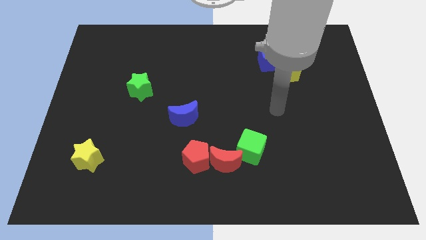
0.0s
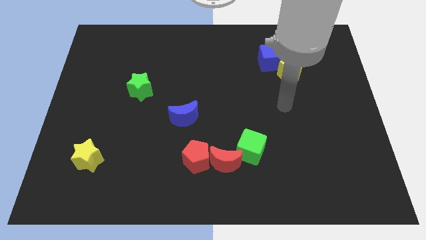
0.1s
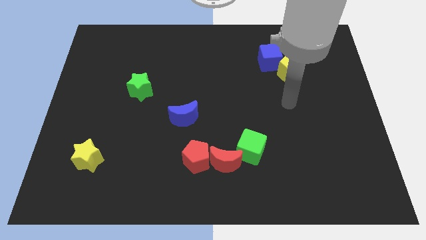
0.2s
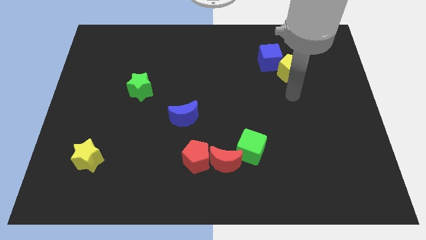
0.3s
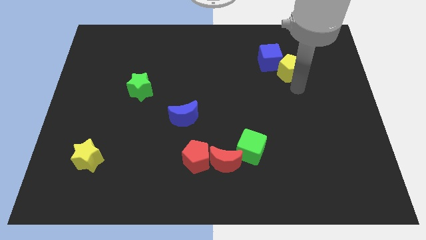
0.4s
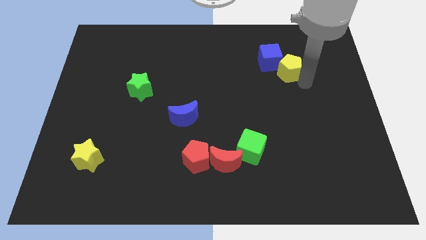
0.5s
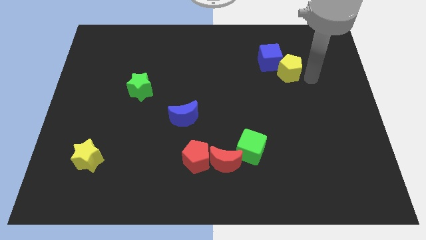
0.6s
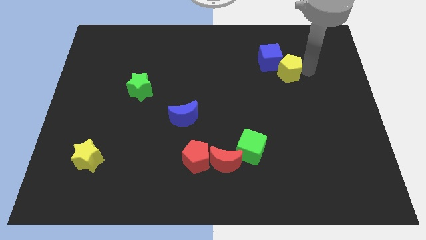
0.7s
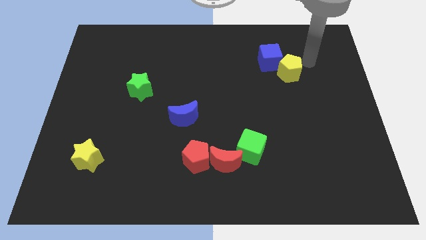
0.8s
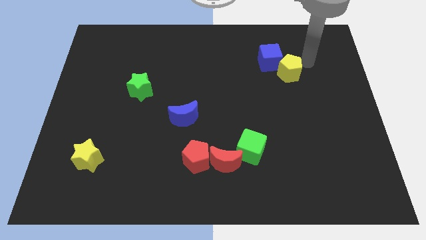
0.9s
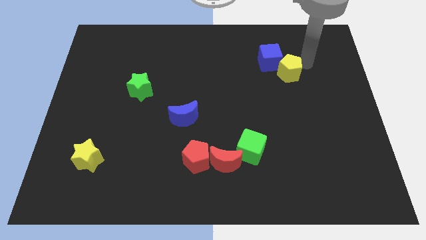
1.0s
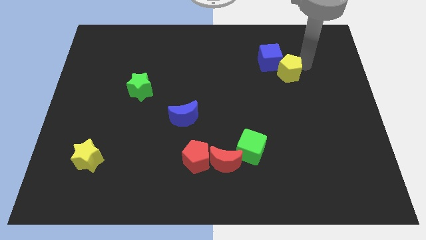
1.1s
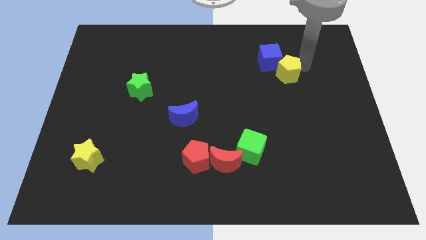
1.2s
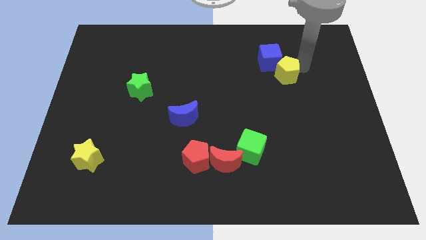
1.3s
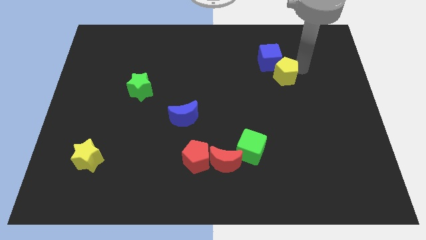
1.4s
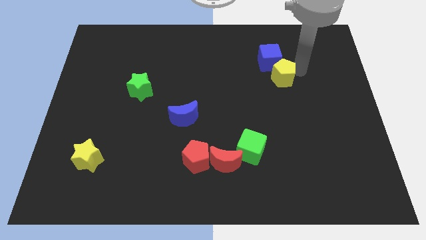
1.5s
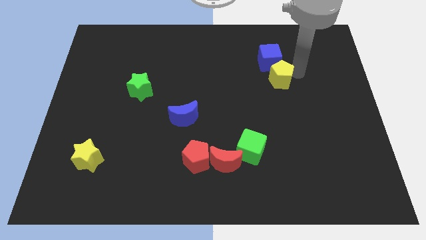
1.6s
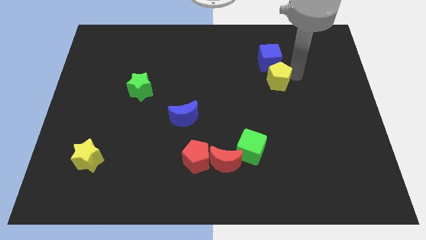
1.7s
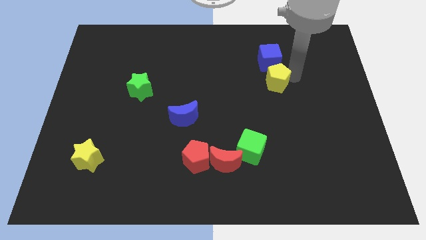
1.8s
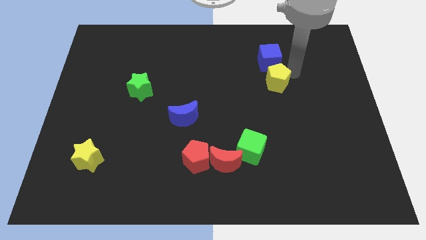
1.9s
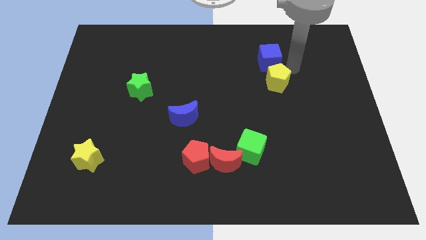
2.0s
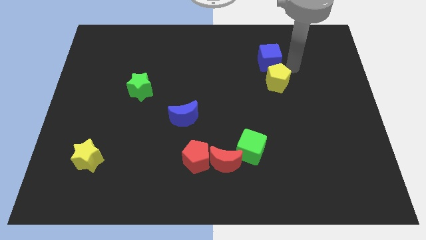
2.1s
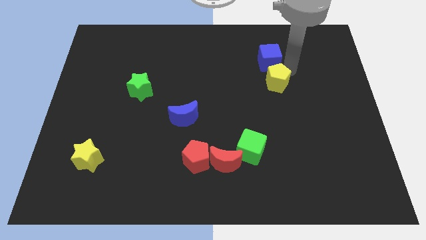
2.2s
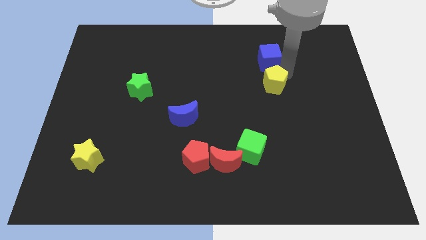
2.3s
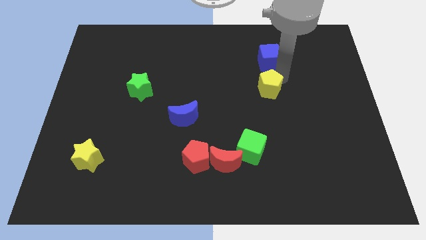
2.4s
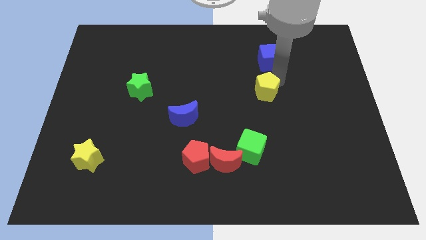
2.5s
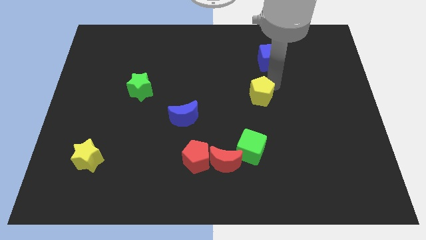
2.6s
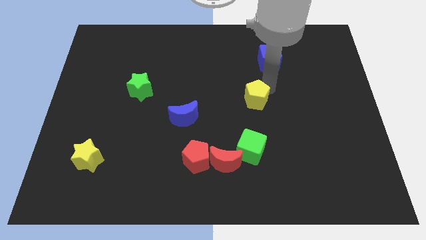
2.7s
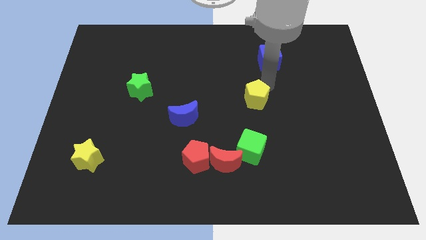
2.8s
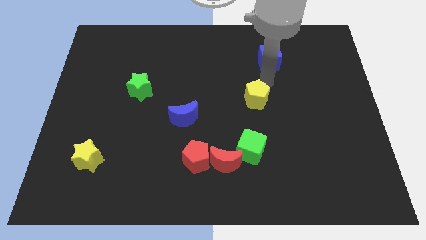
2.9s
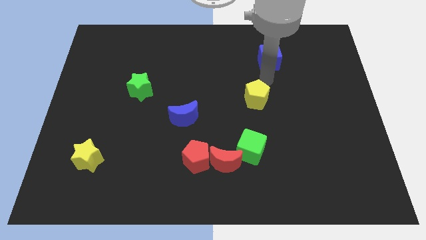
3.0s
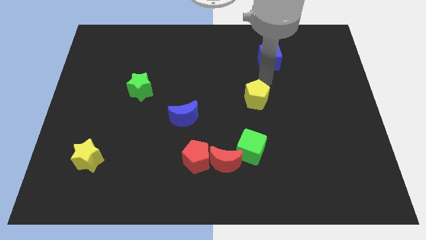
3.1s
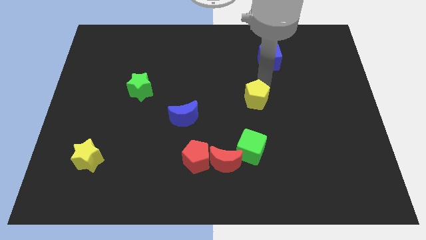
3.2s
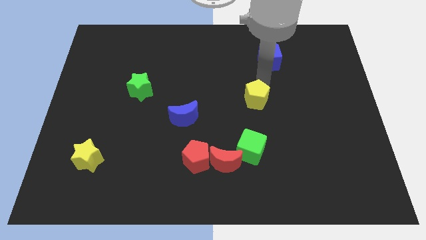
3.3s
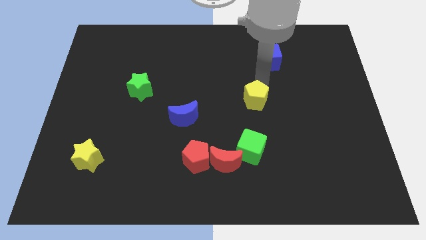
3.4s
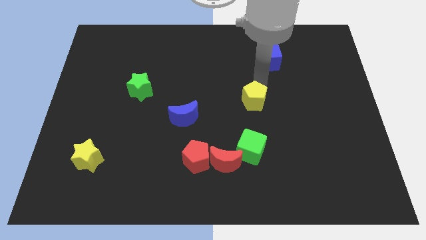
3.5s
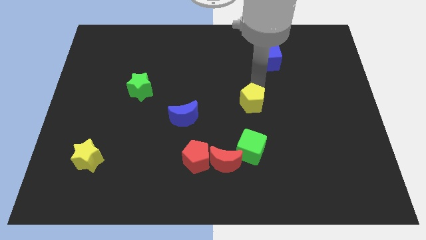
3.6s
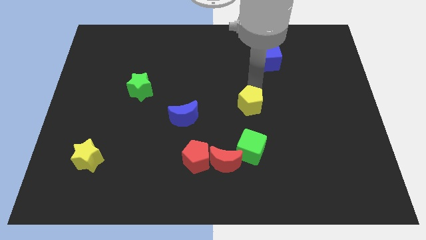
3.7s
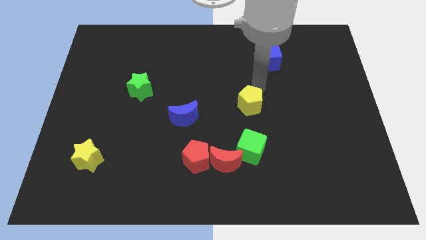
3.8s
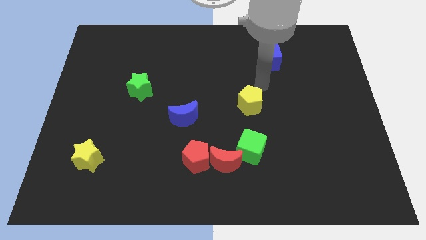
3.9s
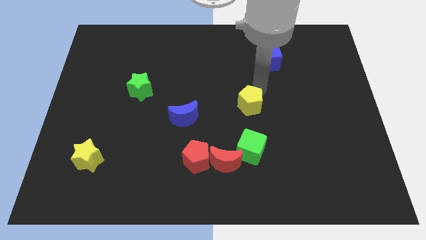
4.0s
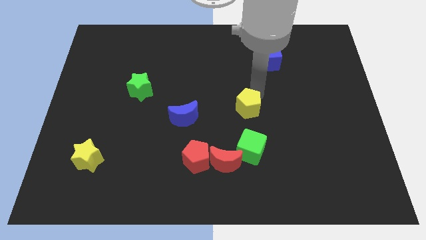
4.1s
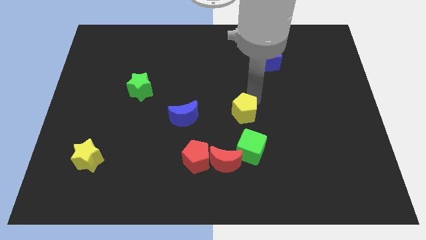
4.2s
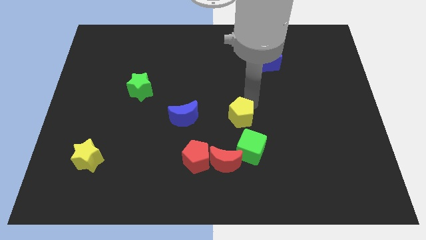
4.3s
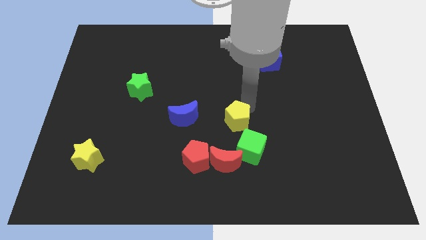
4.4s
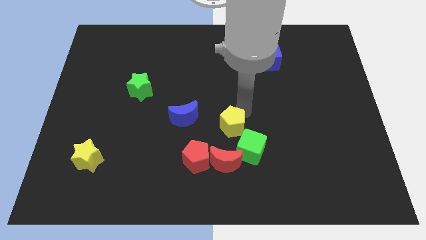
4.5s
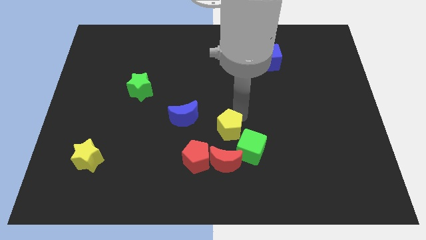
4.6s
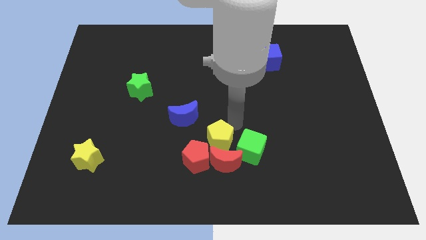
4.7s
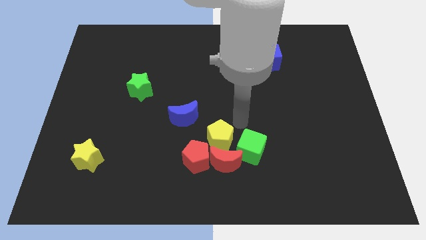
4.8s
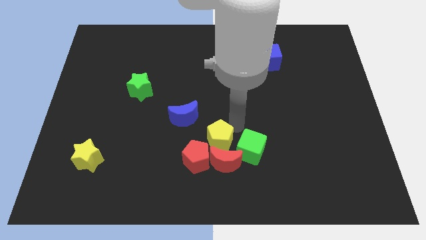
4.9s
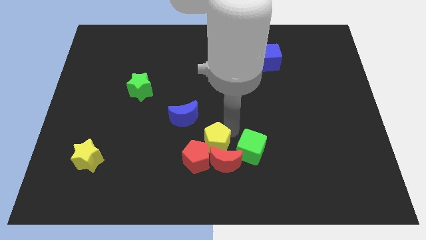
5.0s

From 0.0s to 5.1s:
slide the yellow pentagon to the red pentagon

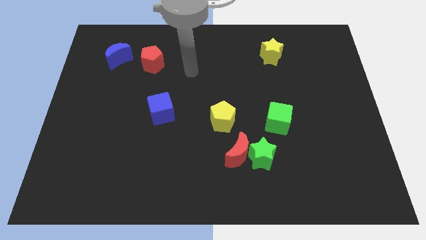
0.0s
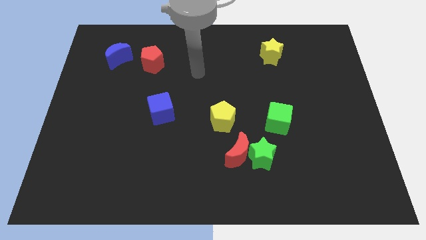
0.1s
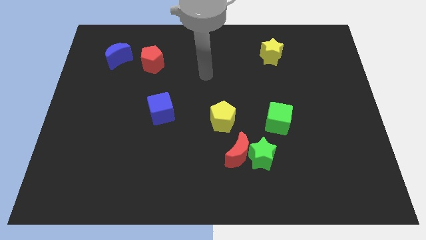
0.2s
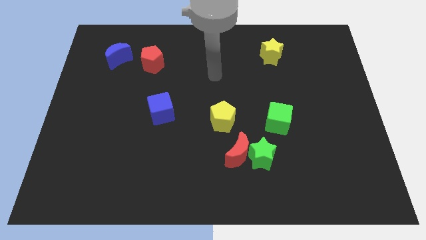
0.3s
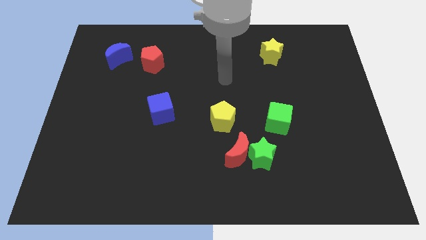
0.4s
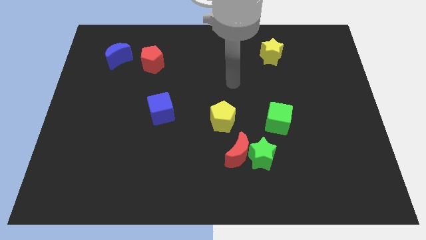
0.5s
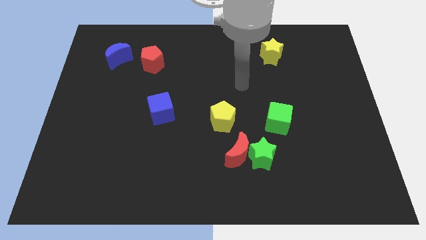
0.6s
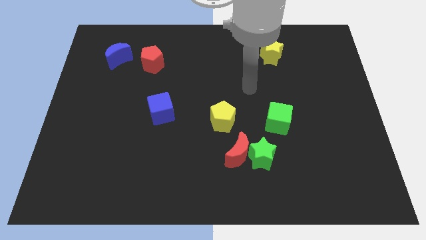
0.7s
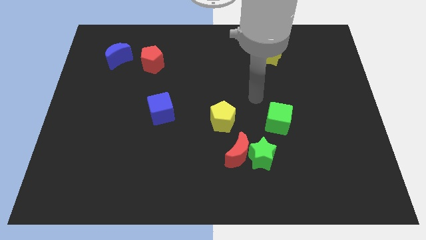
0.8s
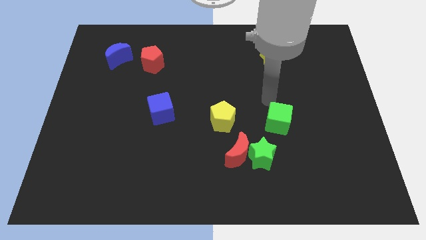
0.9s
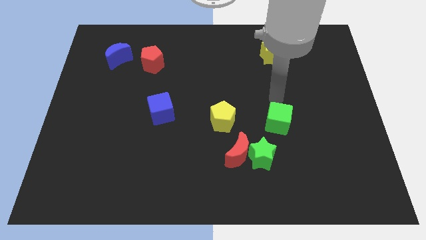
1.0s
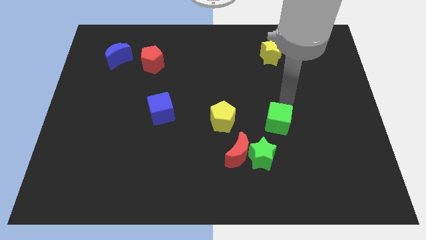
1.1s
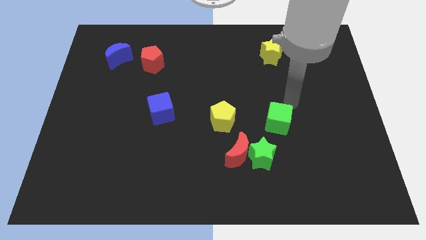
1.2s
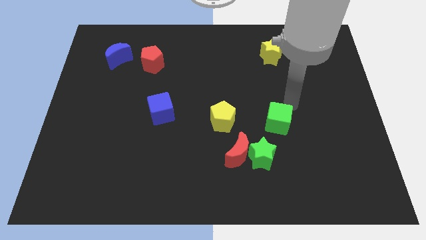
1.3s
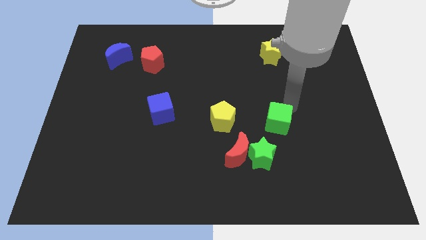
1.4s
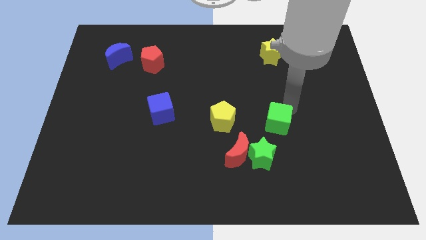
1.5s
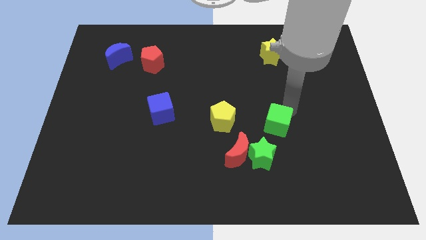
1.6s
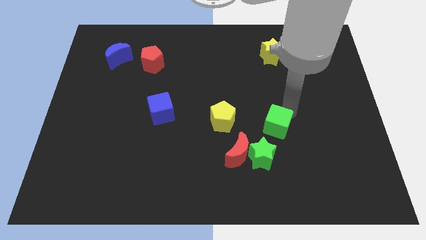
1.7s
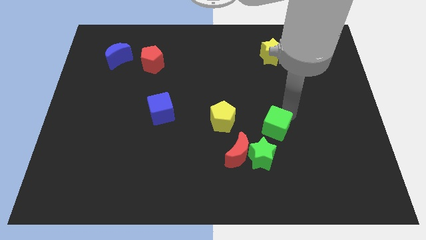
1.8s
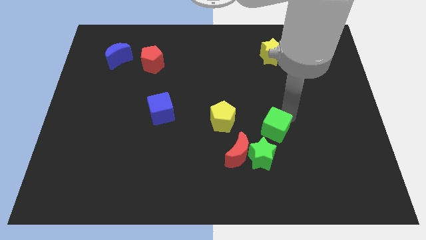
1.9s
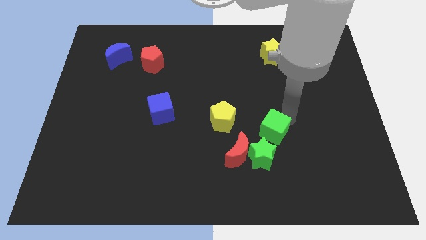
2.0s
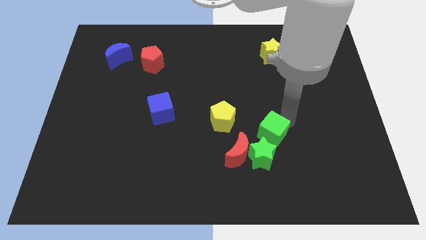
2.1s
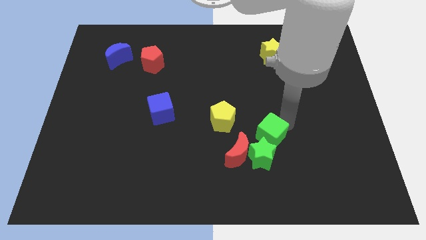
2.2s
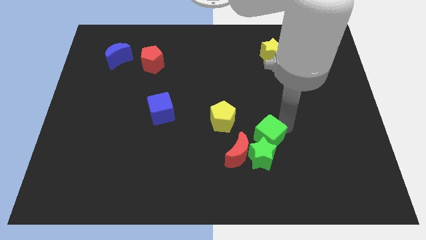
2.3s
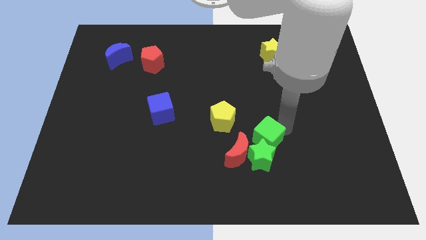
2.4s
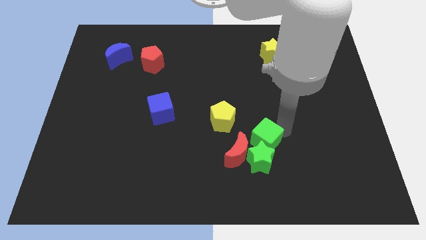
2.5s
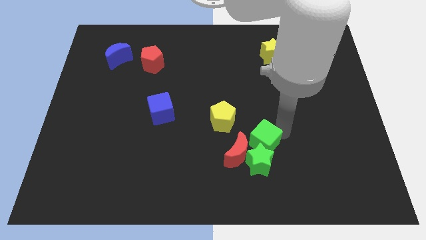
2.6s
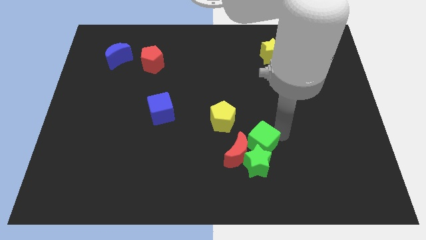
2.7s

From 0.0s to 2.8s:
put the green cube close to the red moon
